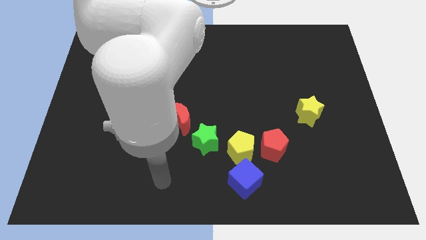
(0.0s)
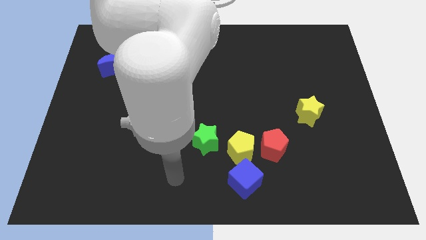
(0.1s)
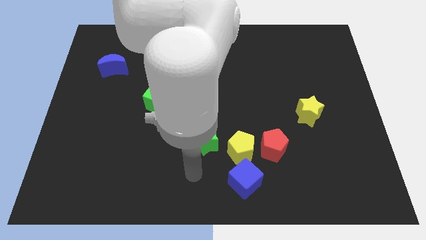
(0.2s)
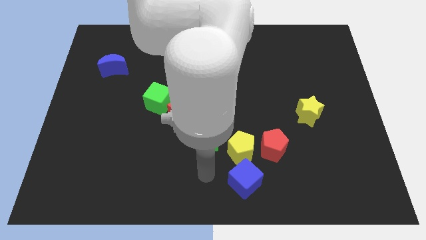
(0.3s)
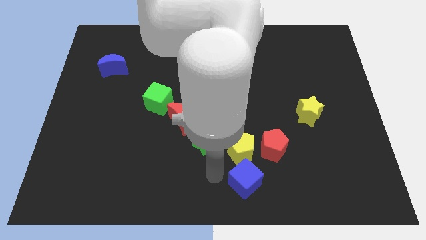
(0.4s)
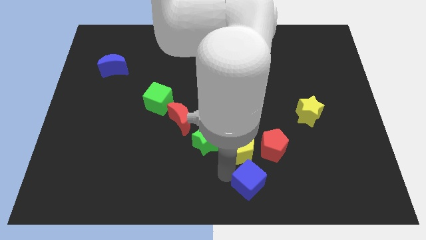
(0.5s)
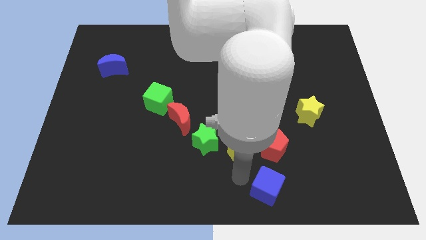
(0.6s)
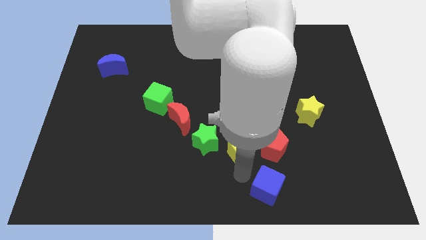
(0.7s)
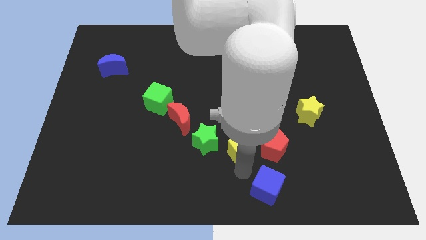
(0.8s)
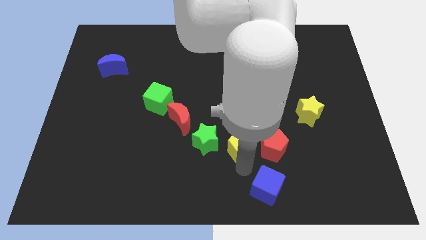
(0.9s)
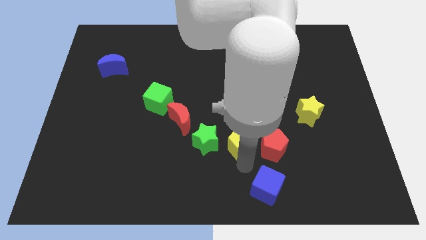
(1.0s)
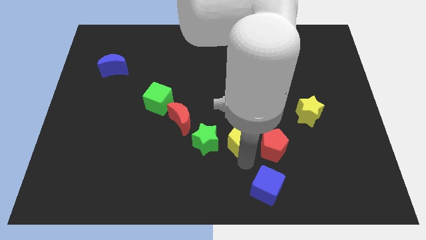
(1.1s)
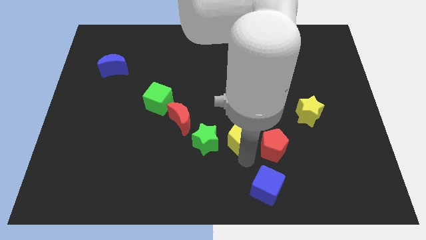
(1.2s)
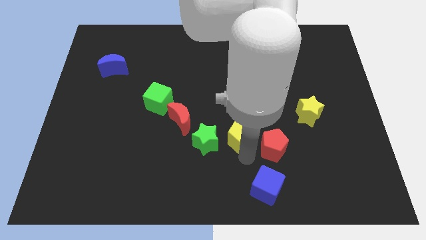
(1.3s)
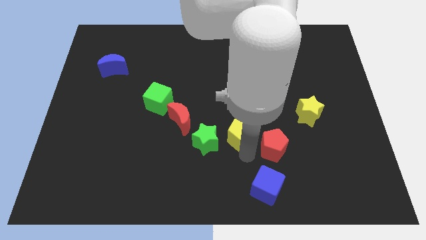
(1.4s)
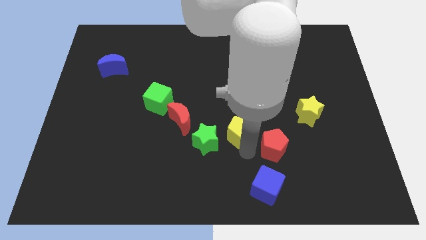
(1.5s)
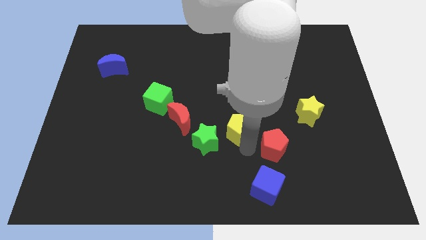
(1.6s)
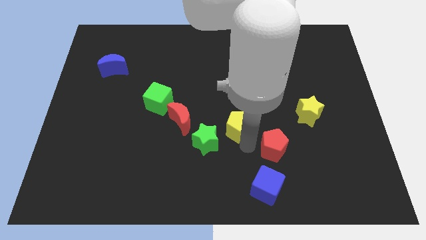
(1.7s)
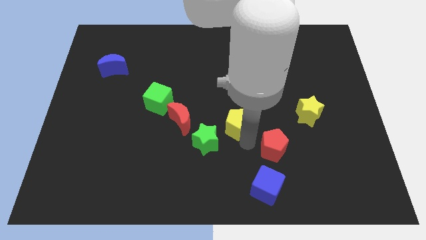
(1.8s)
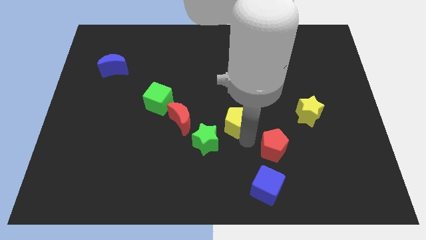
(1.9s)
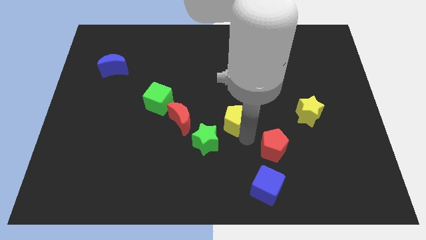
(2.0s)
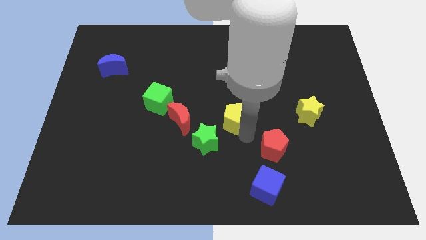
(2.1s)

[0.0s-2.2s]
pull the yellow pentagon apart from the group of blocks

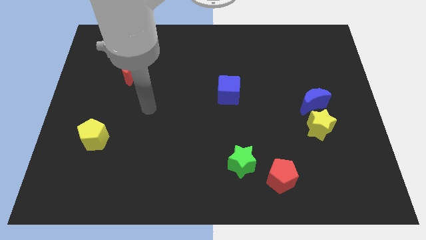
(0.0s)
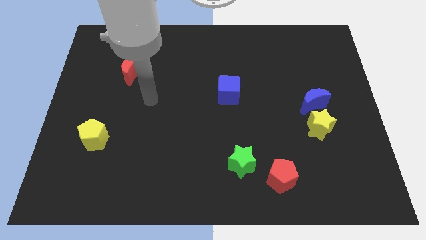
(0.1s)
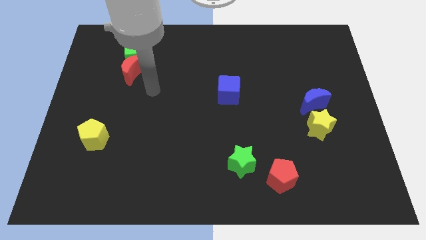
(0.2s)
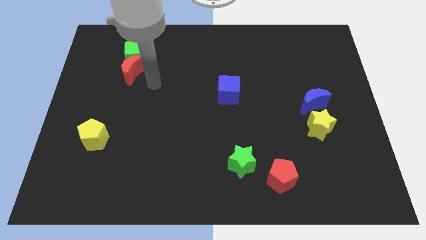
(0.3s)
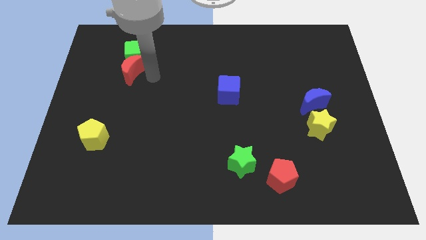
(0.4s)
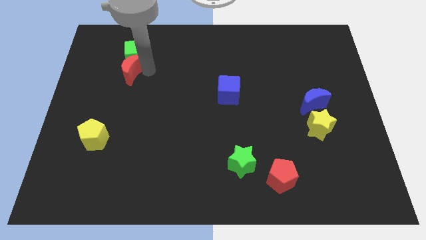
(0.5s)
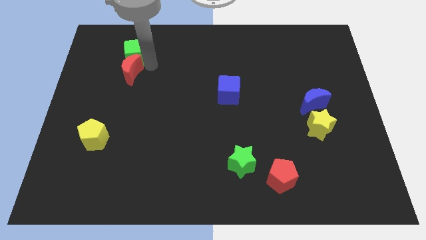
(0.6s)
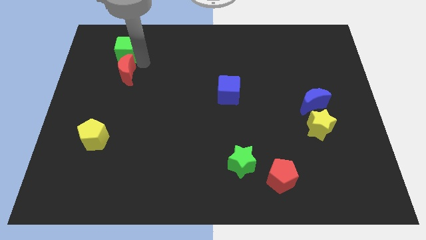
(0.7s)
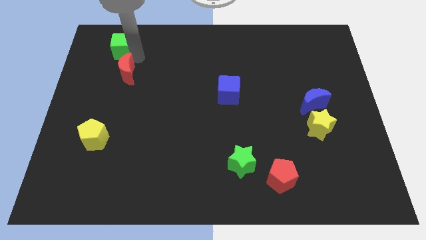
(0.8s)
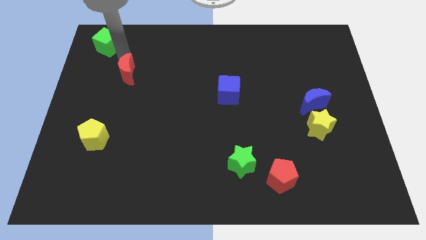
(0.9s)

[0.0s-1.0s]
move the red moon away from the green cube

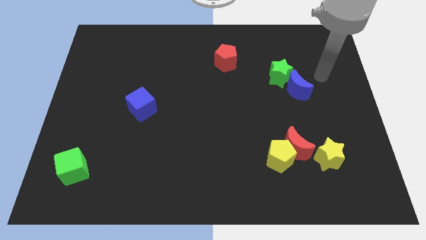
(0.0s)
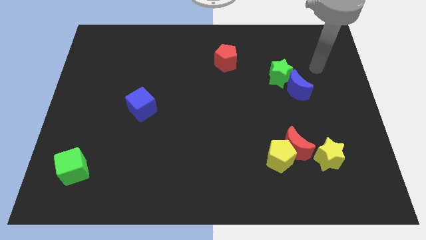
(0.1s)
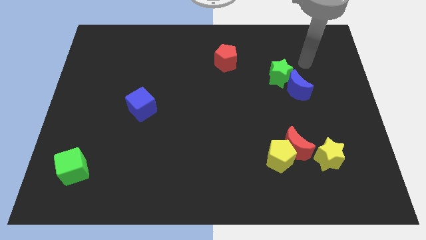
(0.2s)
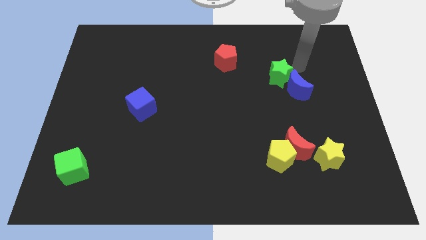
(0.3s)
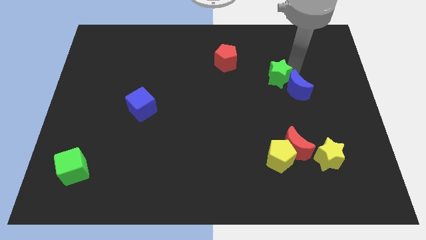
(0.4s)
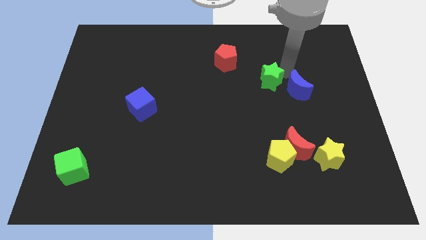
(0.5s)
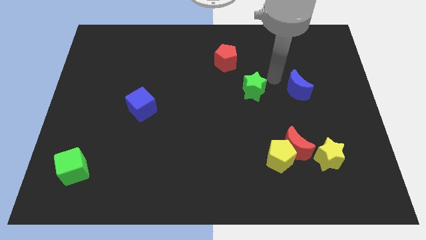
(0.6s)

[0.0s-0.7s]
move the blue moon away from the green star

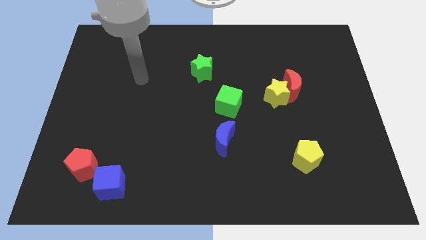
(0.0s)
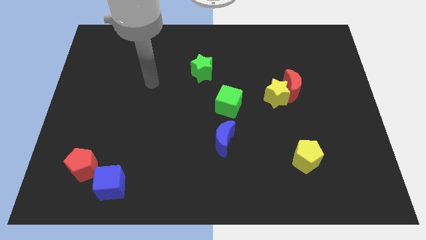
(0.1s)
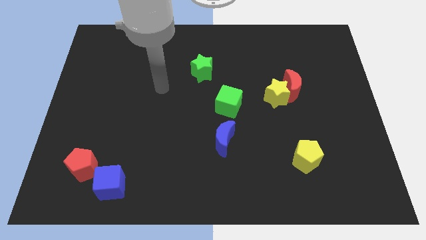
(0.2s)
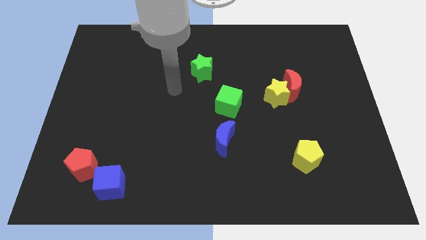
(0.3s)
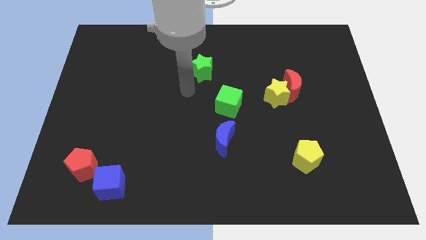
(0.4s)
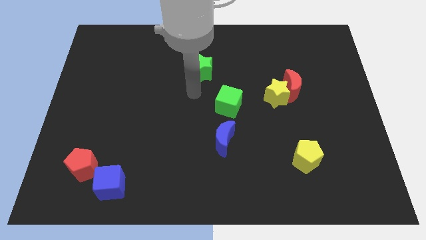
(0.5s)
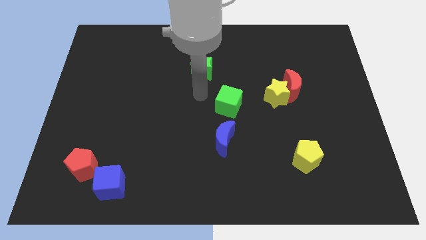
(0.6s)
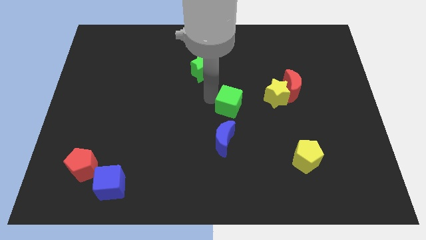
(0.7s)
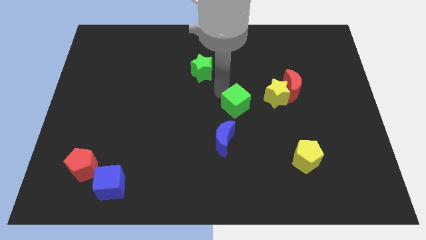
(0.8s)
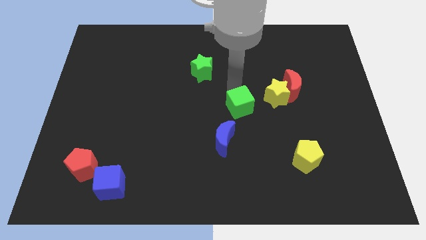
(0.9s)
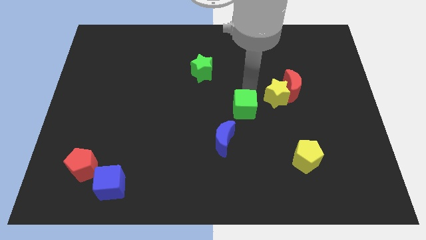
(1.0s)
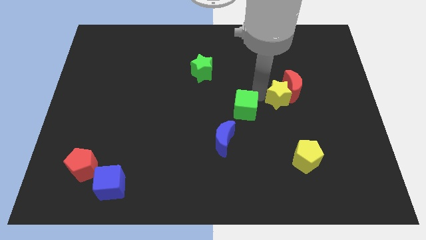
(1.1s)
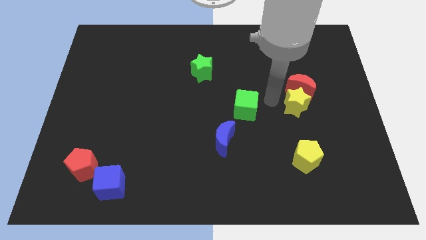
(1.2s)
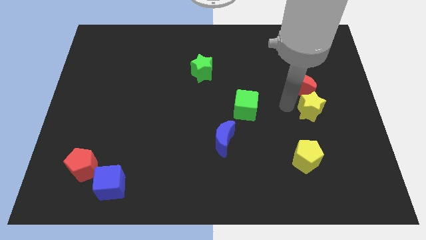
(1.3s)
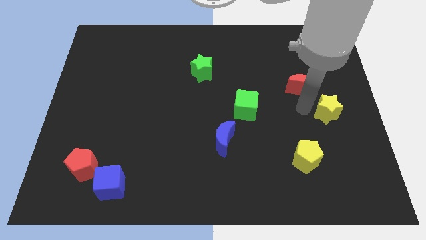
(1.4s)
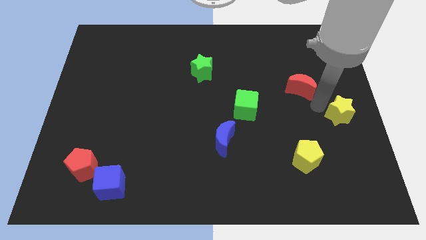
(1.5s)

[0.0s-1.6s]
separate the red moon from the yellow star

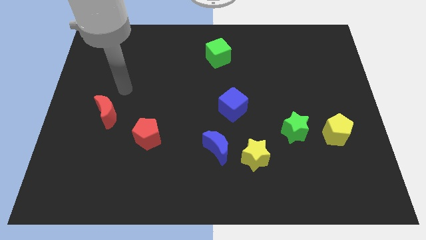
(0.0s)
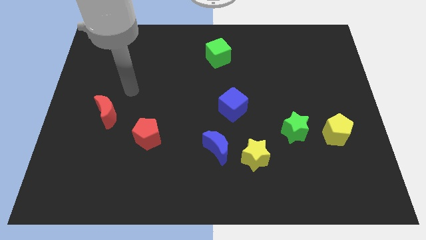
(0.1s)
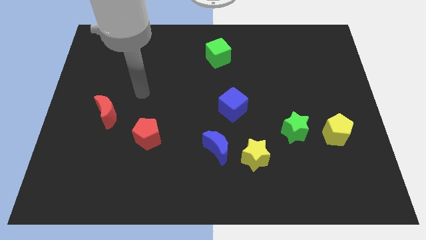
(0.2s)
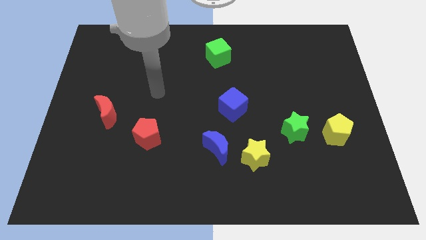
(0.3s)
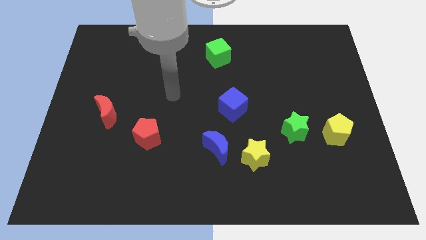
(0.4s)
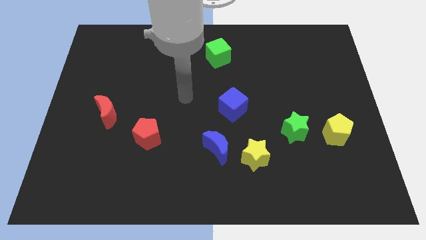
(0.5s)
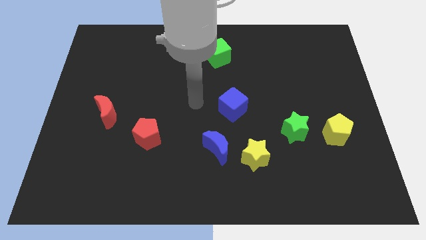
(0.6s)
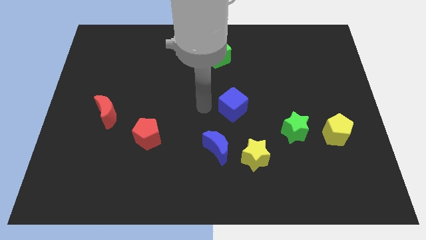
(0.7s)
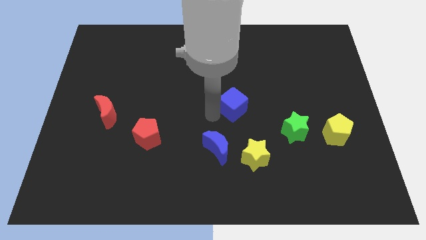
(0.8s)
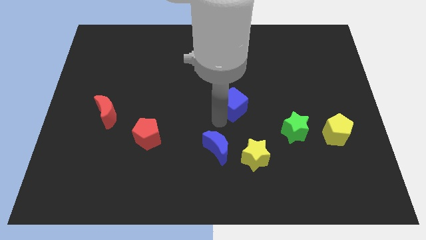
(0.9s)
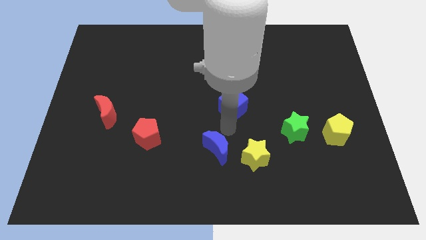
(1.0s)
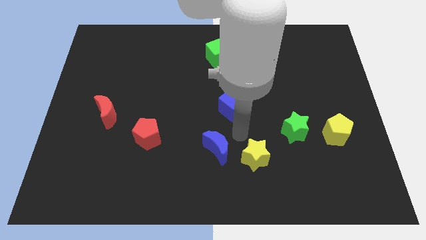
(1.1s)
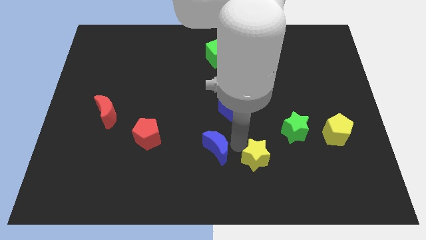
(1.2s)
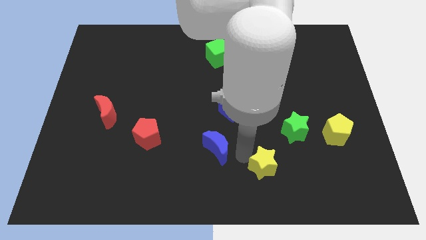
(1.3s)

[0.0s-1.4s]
separate the blue moon from the yellow star

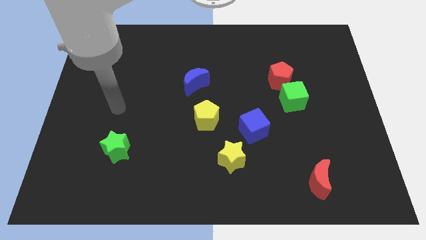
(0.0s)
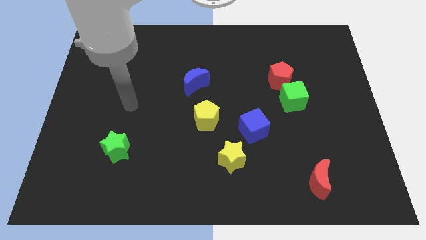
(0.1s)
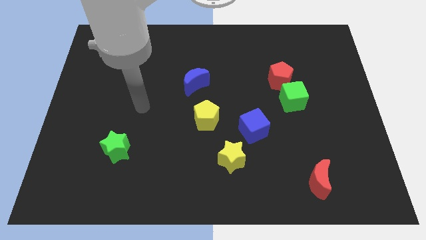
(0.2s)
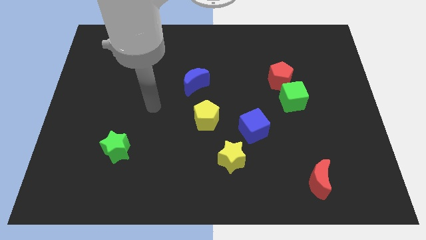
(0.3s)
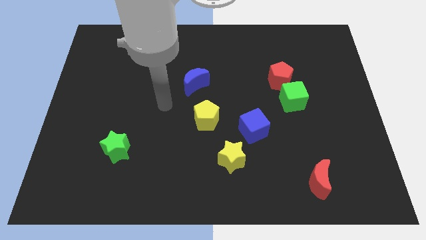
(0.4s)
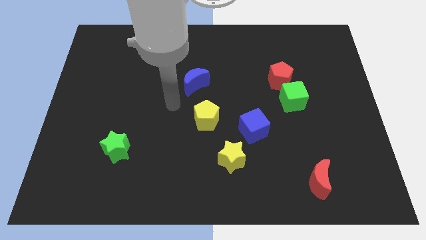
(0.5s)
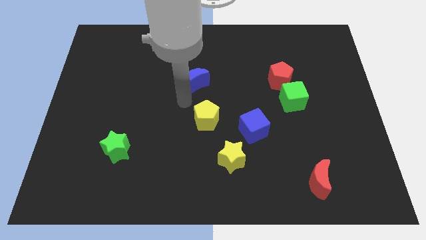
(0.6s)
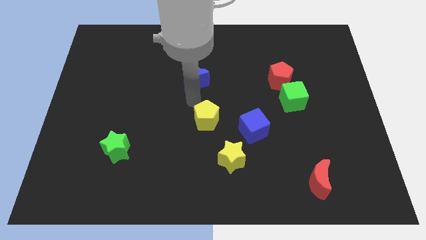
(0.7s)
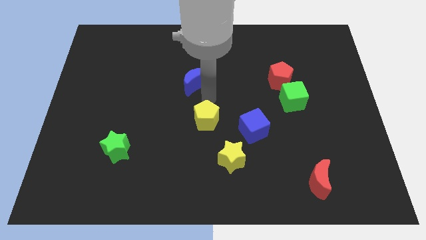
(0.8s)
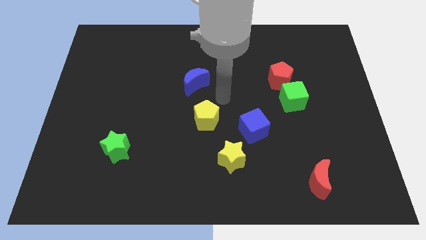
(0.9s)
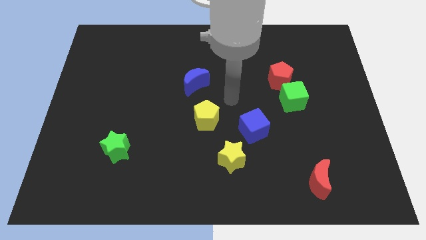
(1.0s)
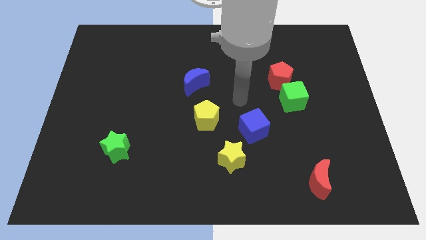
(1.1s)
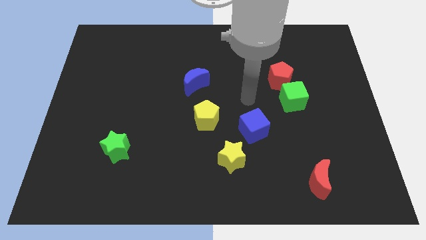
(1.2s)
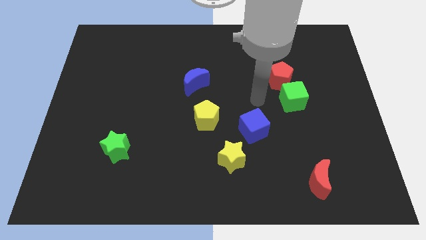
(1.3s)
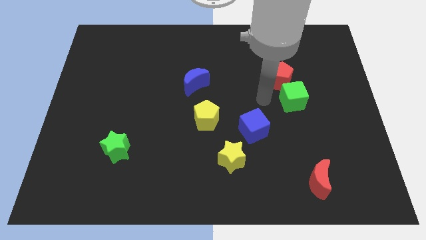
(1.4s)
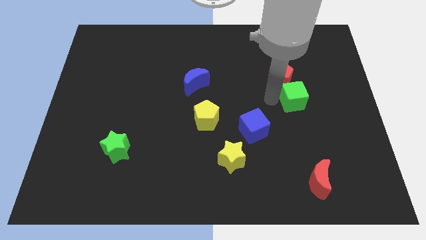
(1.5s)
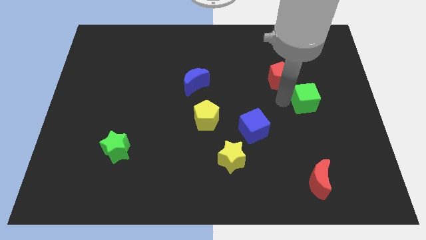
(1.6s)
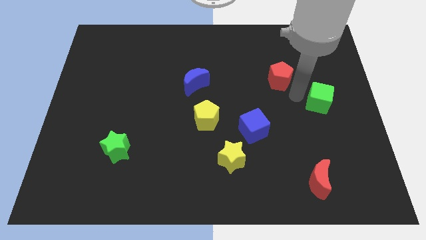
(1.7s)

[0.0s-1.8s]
move the red pentagon away from the green cube

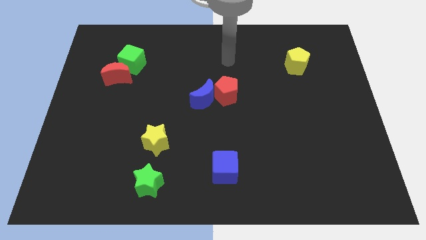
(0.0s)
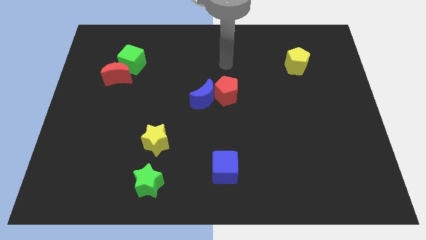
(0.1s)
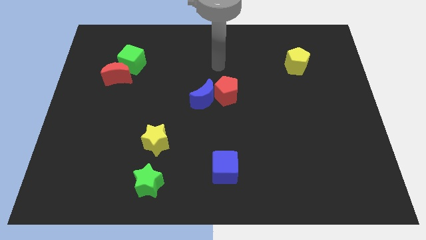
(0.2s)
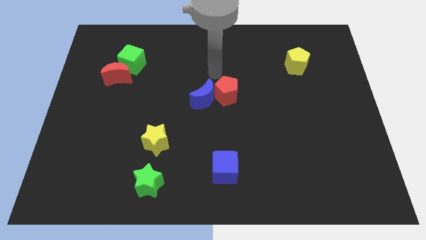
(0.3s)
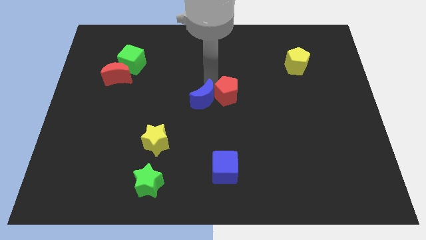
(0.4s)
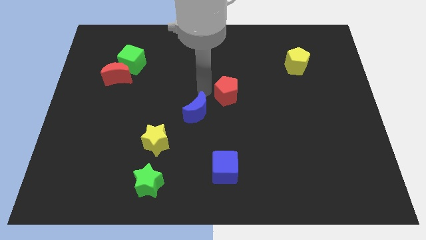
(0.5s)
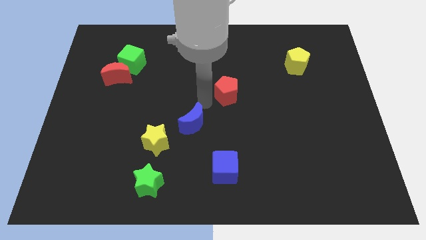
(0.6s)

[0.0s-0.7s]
pull the red pentagon apart from the blue moon

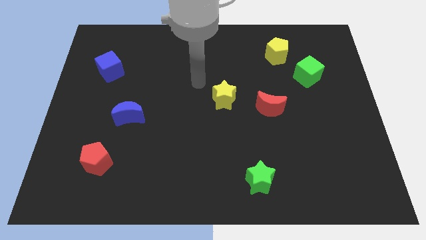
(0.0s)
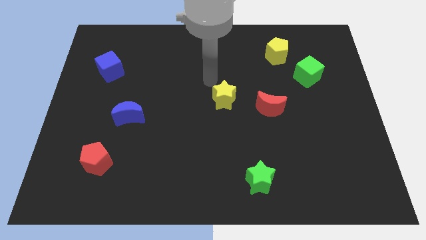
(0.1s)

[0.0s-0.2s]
move the green cube away from the yellow pentagon
